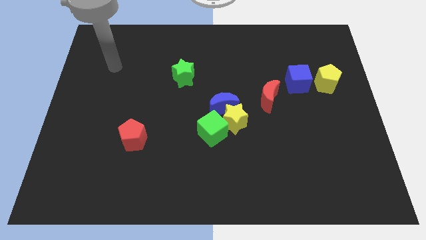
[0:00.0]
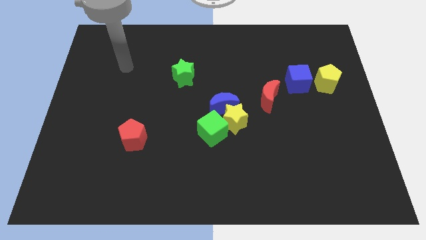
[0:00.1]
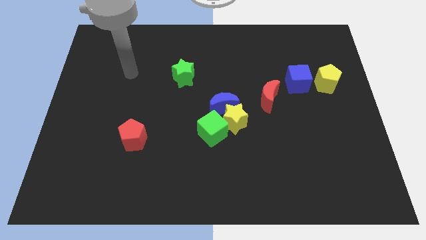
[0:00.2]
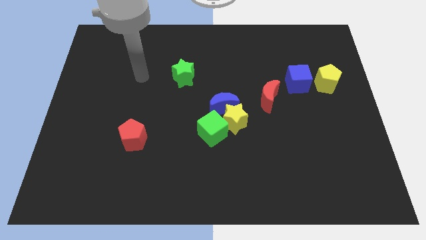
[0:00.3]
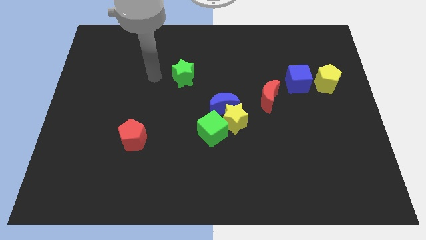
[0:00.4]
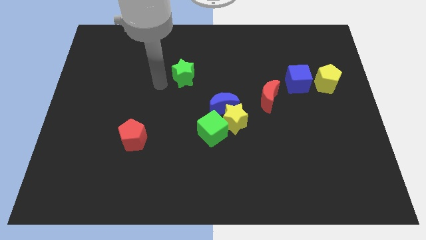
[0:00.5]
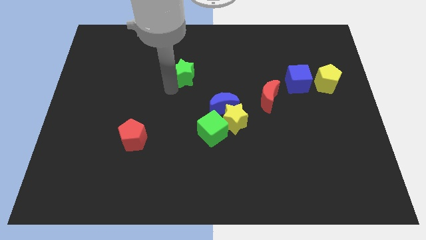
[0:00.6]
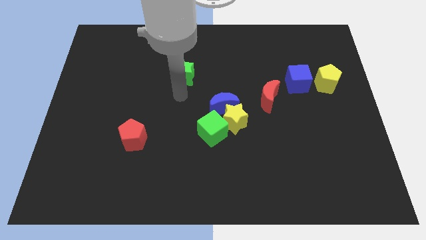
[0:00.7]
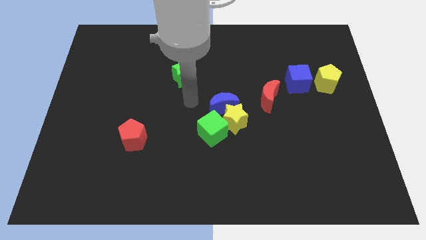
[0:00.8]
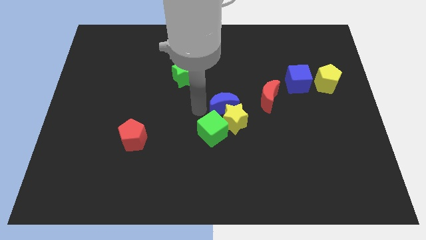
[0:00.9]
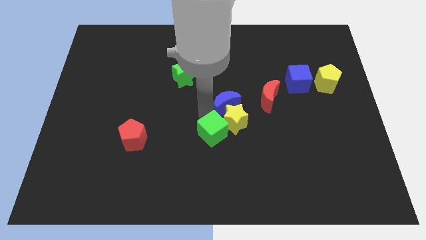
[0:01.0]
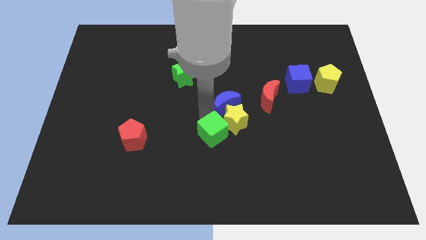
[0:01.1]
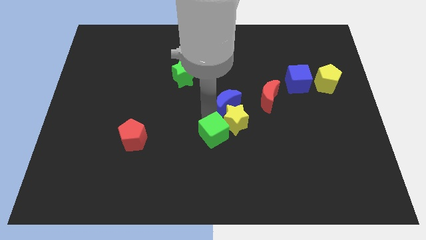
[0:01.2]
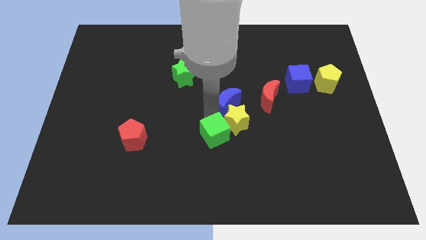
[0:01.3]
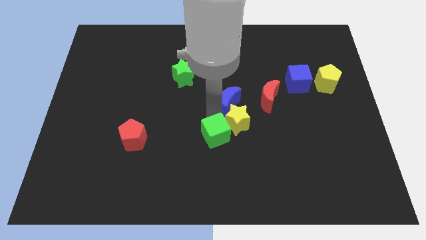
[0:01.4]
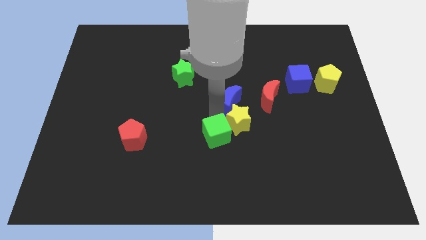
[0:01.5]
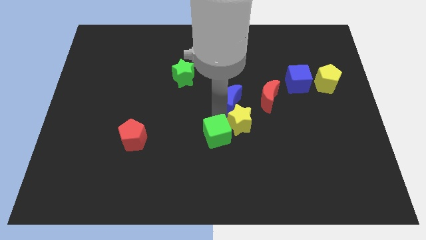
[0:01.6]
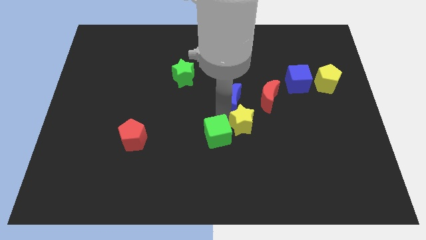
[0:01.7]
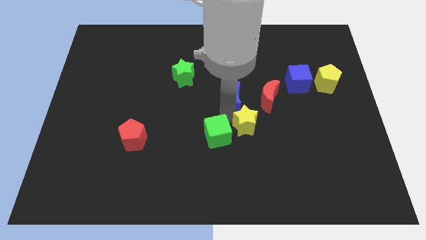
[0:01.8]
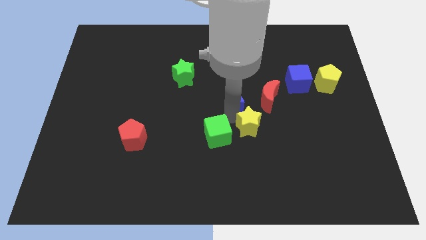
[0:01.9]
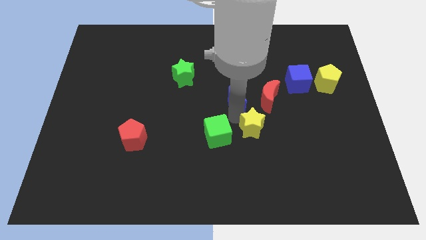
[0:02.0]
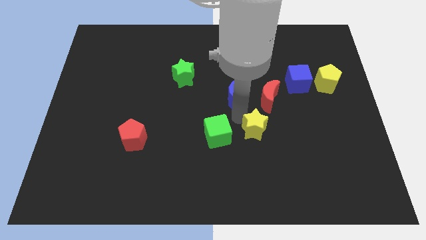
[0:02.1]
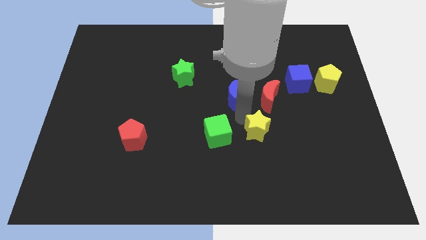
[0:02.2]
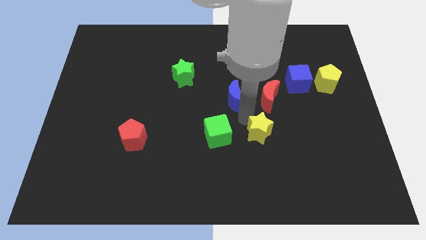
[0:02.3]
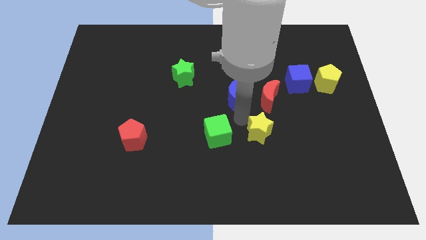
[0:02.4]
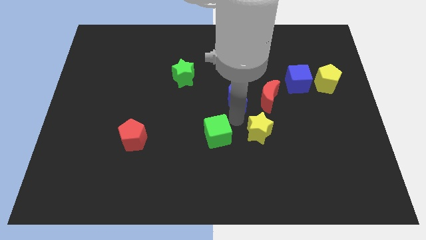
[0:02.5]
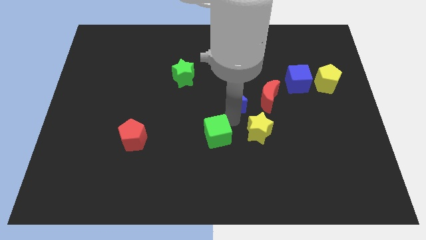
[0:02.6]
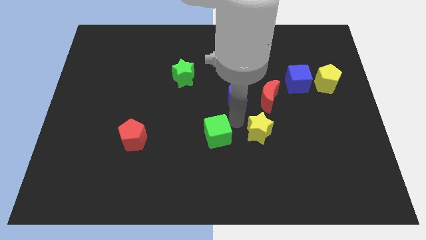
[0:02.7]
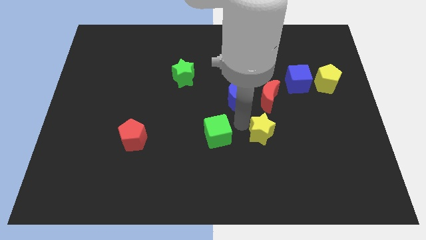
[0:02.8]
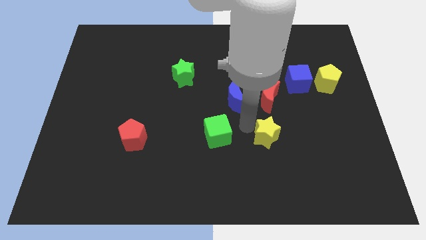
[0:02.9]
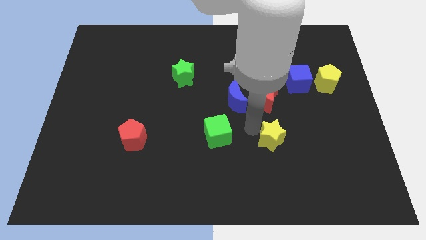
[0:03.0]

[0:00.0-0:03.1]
move the yellow star away from the blue moon and green cube

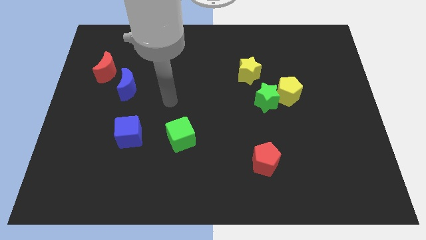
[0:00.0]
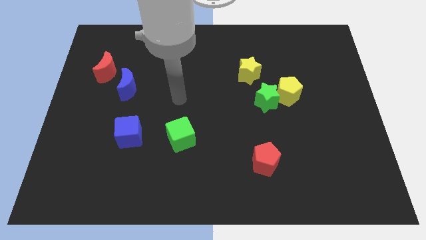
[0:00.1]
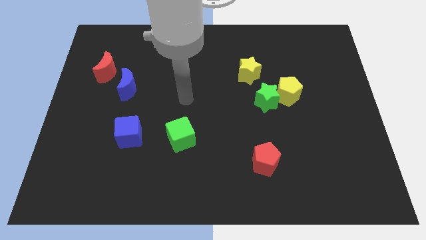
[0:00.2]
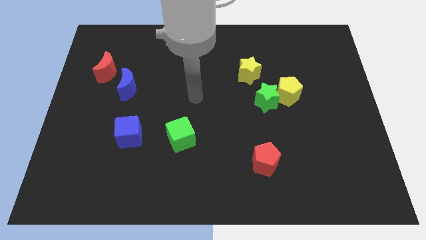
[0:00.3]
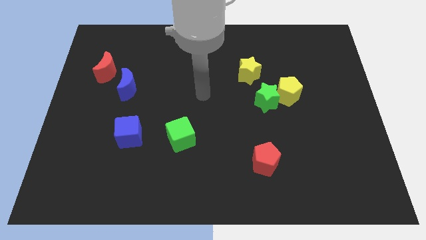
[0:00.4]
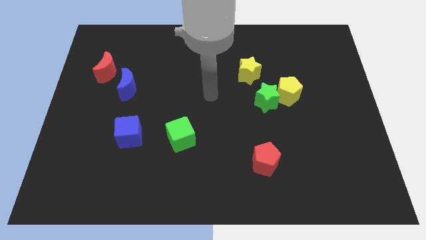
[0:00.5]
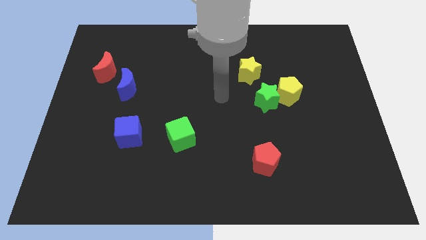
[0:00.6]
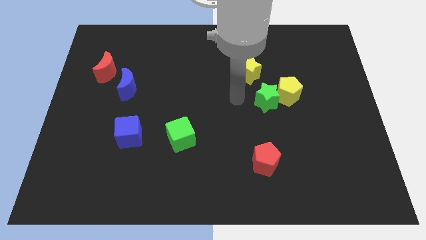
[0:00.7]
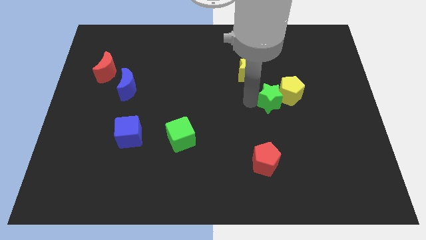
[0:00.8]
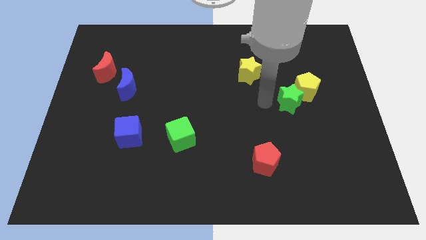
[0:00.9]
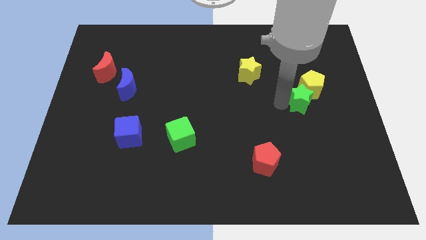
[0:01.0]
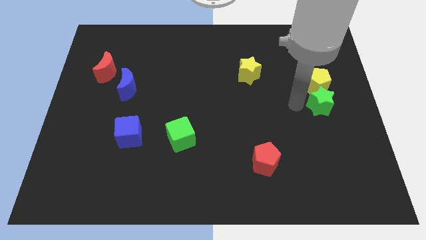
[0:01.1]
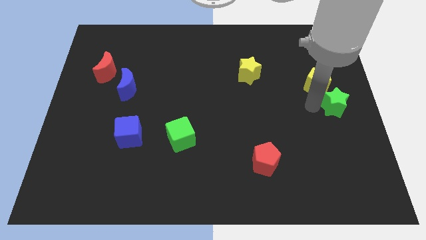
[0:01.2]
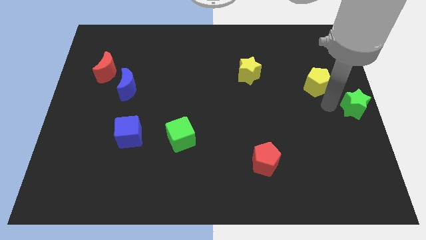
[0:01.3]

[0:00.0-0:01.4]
separate the yellow pentagon from the green star

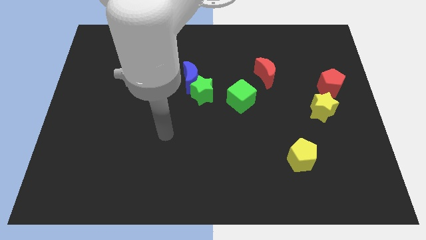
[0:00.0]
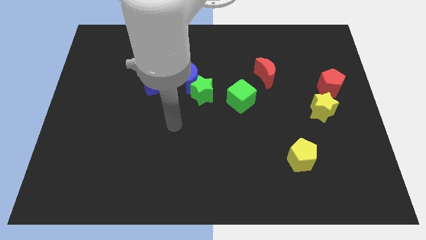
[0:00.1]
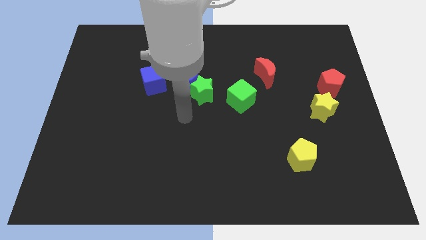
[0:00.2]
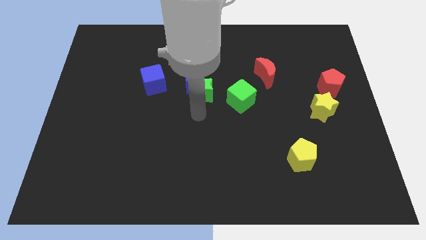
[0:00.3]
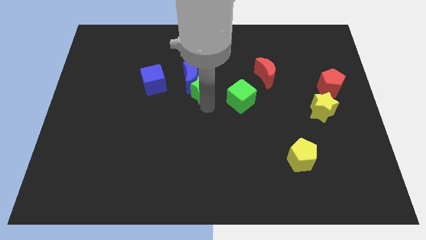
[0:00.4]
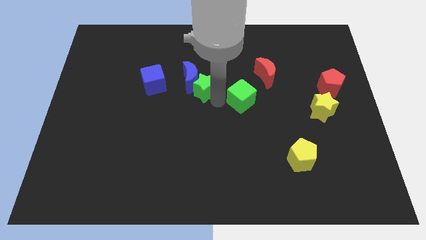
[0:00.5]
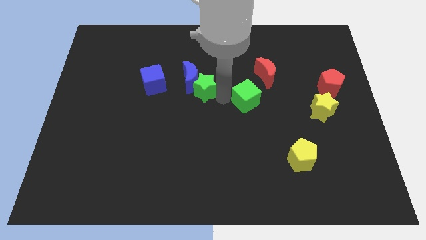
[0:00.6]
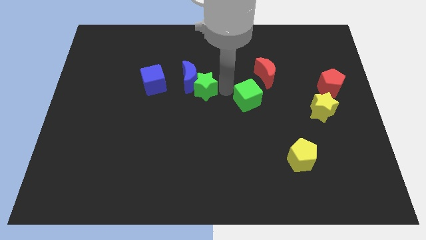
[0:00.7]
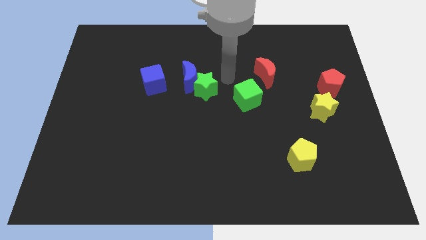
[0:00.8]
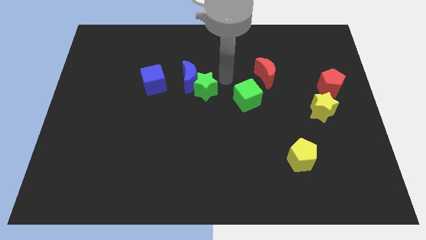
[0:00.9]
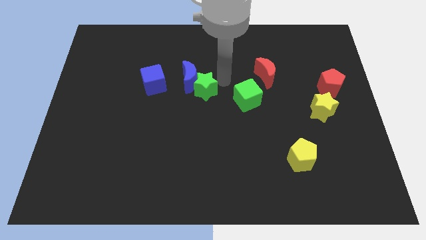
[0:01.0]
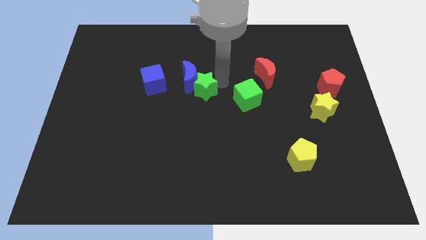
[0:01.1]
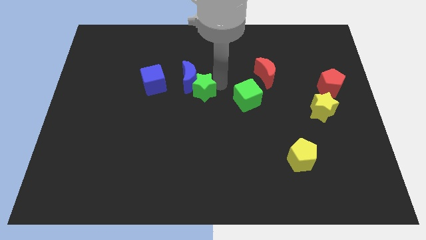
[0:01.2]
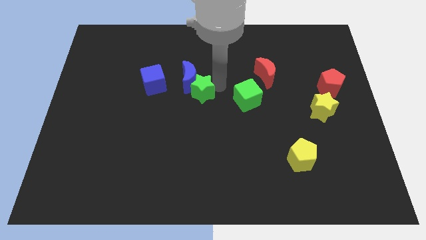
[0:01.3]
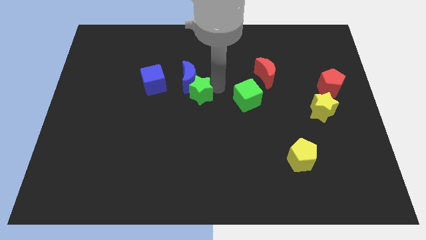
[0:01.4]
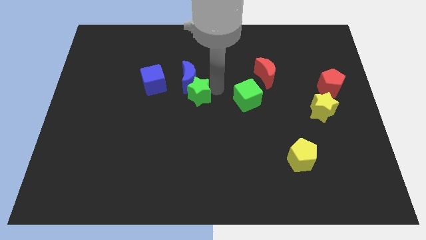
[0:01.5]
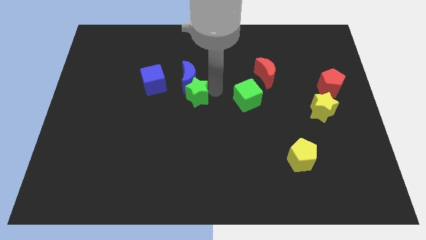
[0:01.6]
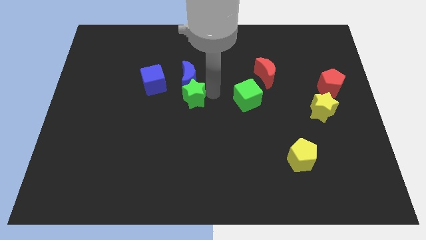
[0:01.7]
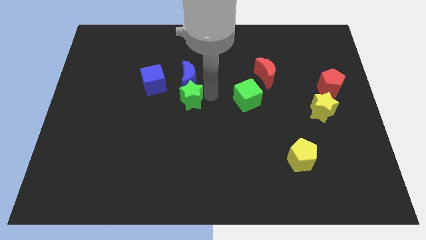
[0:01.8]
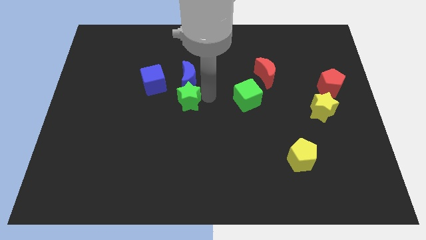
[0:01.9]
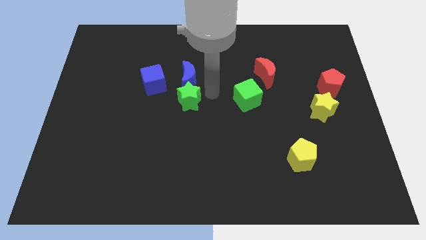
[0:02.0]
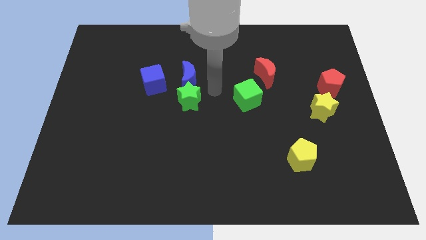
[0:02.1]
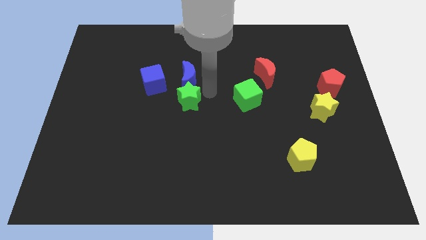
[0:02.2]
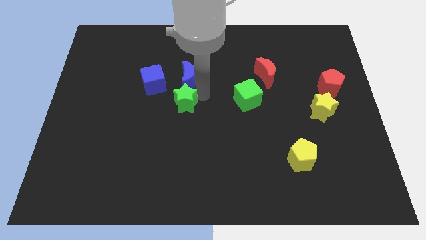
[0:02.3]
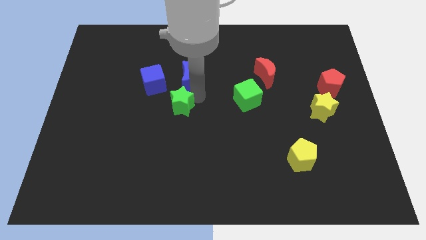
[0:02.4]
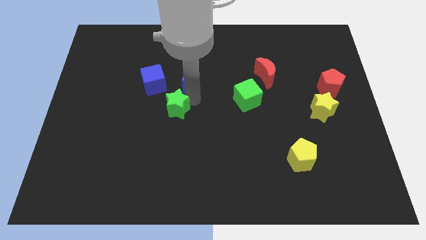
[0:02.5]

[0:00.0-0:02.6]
pull the green star apart from the blue moon and green cube

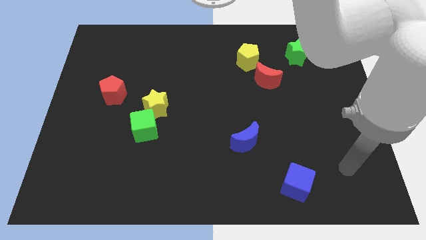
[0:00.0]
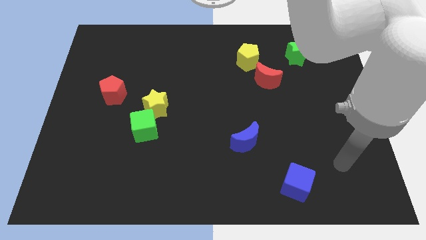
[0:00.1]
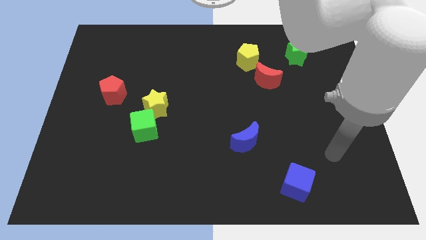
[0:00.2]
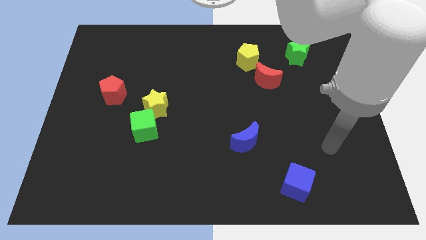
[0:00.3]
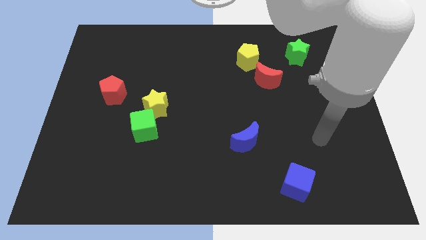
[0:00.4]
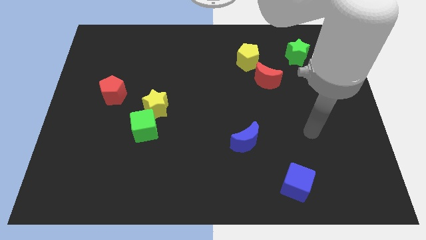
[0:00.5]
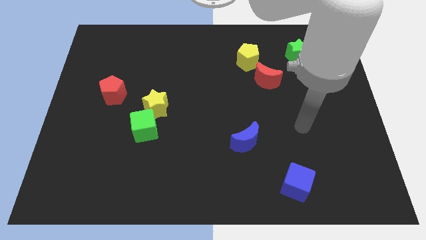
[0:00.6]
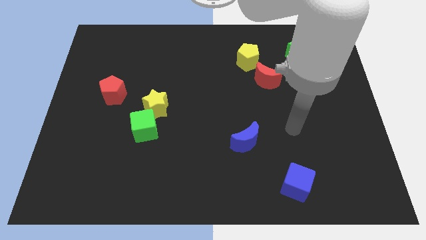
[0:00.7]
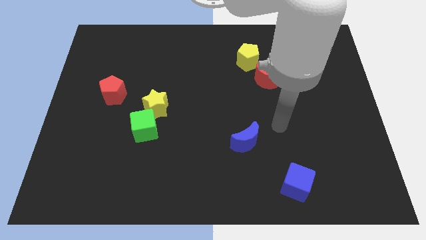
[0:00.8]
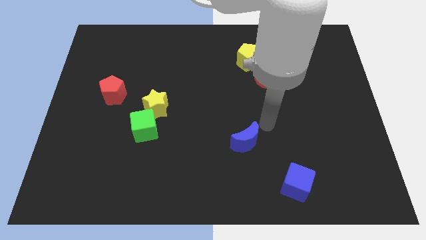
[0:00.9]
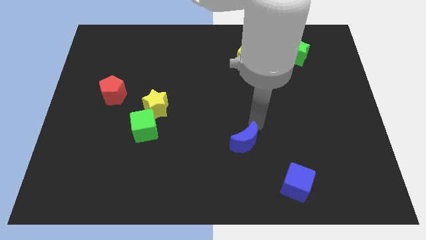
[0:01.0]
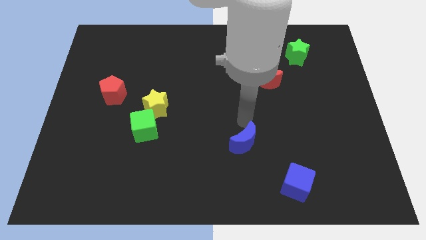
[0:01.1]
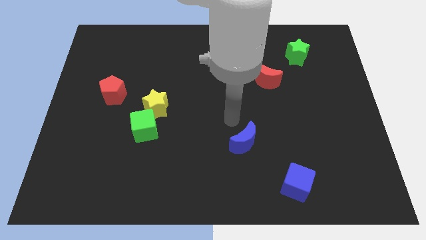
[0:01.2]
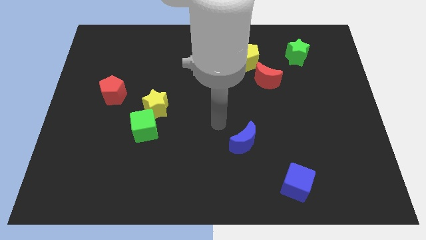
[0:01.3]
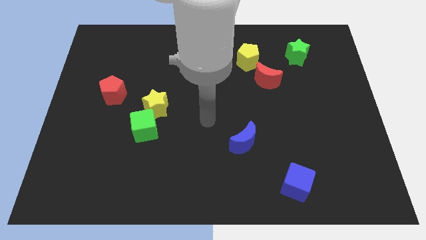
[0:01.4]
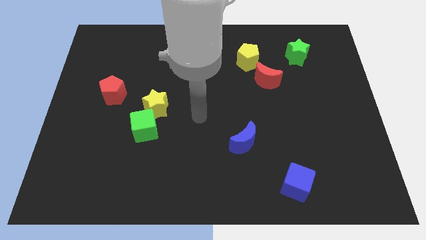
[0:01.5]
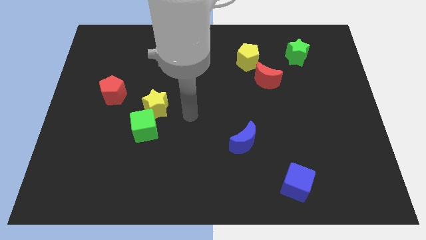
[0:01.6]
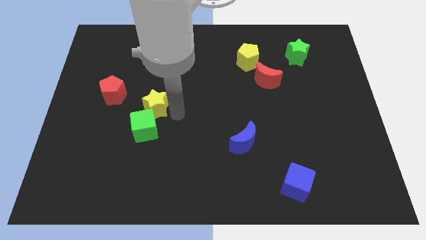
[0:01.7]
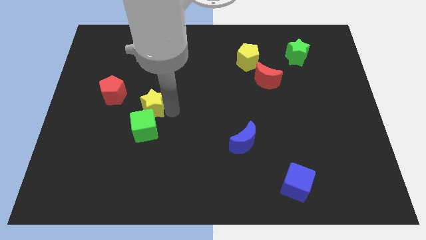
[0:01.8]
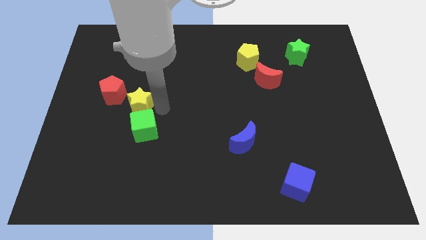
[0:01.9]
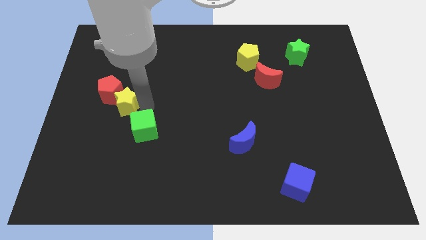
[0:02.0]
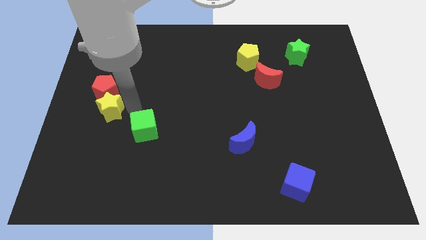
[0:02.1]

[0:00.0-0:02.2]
pull the green cube apart from the yellow star

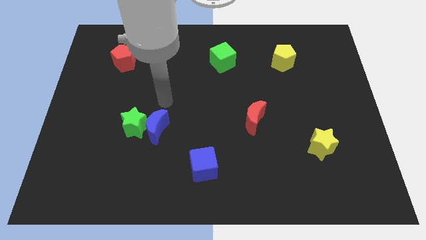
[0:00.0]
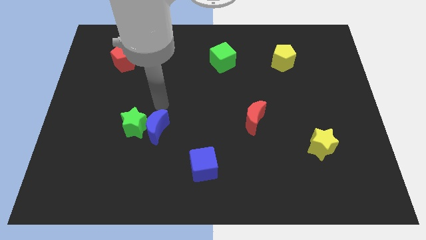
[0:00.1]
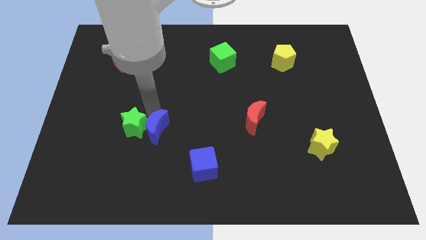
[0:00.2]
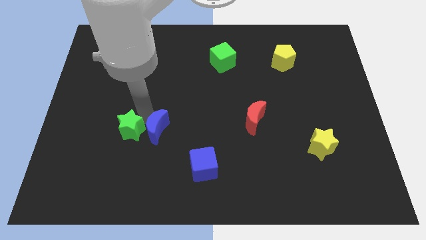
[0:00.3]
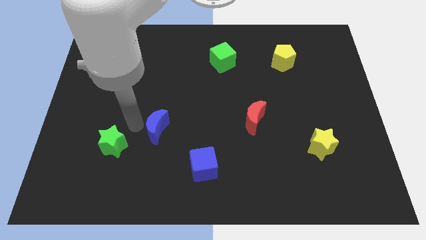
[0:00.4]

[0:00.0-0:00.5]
move the blue moon away from the green star
